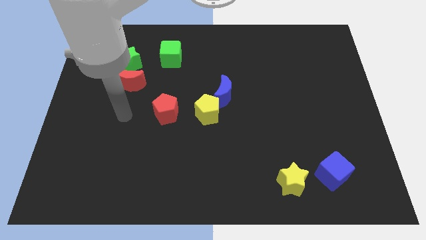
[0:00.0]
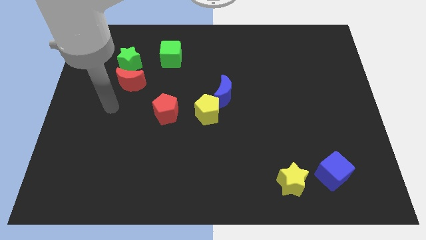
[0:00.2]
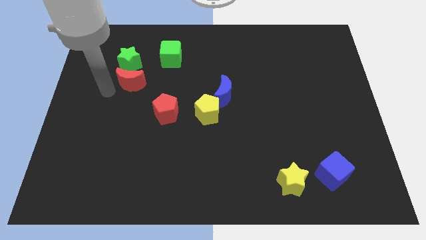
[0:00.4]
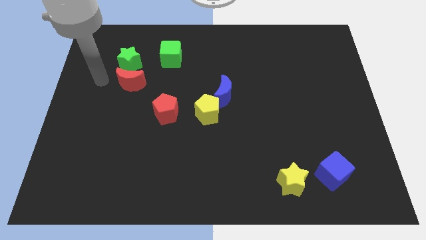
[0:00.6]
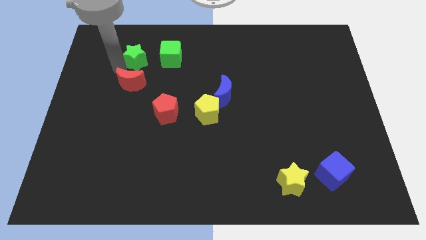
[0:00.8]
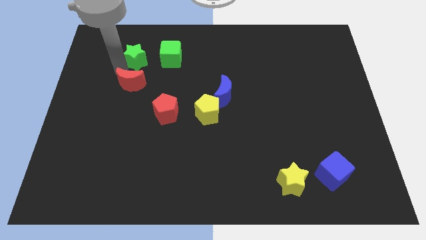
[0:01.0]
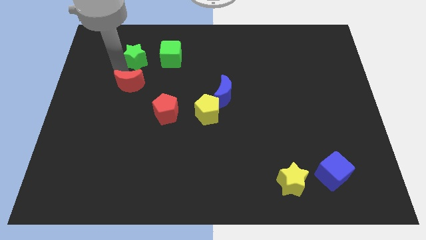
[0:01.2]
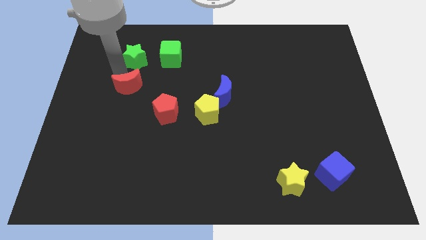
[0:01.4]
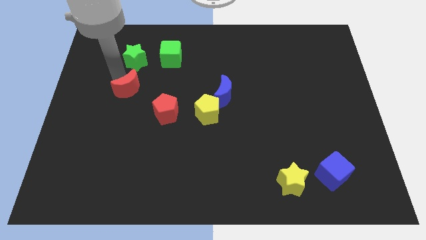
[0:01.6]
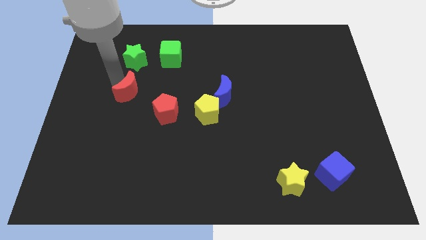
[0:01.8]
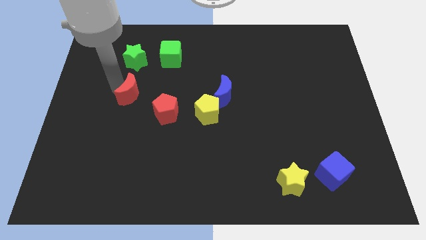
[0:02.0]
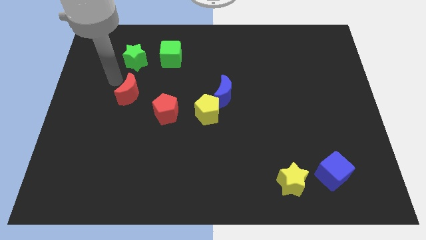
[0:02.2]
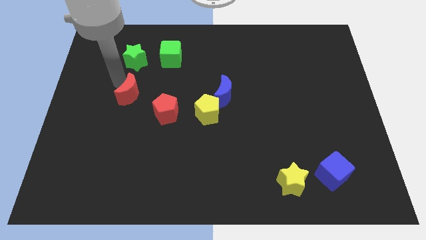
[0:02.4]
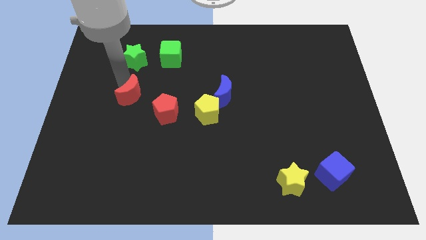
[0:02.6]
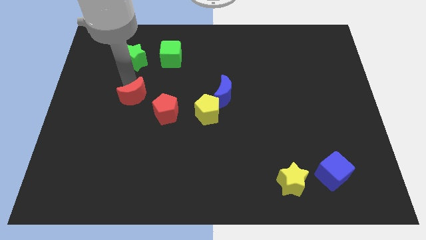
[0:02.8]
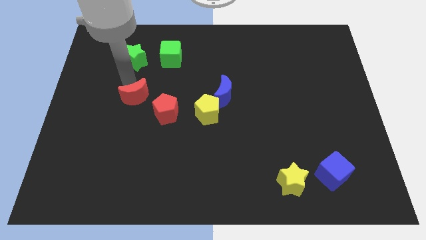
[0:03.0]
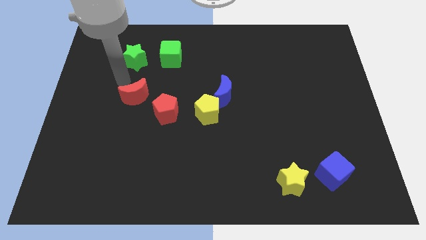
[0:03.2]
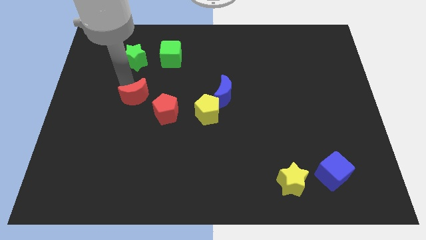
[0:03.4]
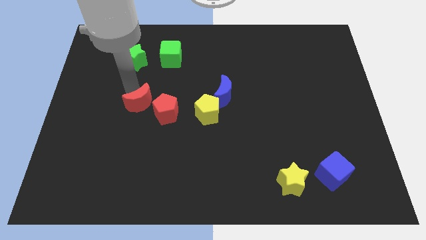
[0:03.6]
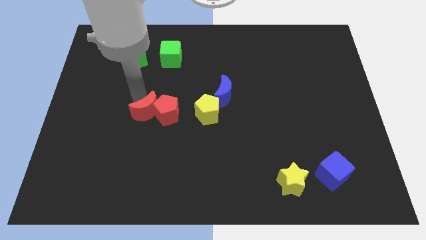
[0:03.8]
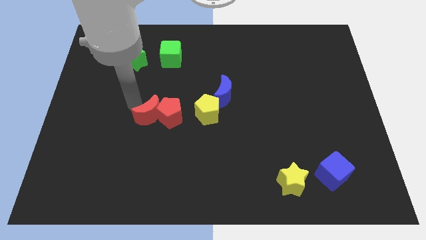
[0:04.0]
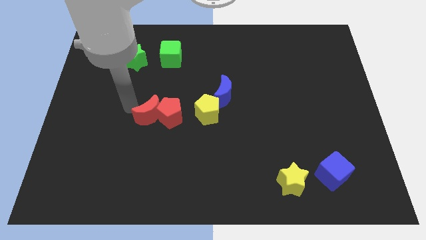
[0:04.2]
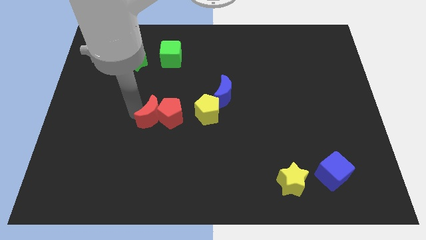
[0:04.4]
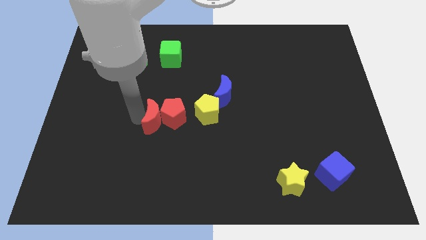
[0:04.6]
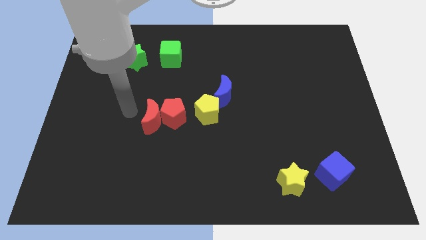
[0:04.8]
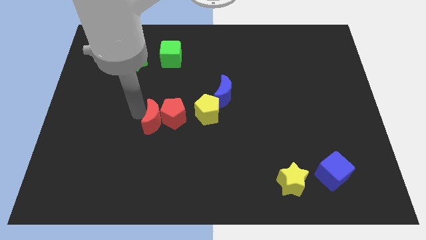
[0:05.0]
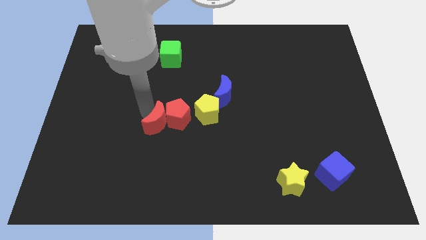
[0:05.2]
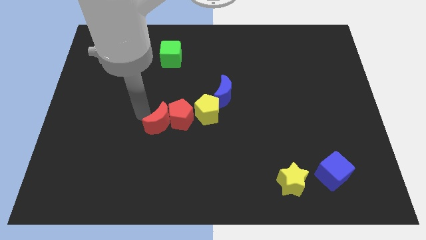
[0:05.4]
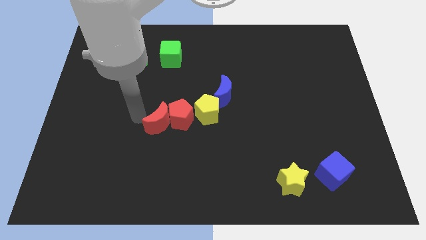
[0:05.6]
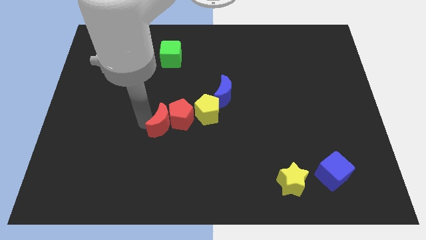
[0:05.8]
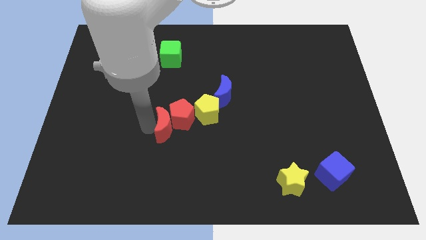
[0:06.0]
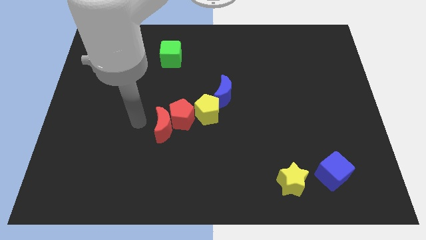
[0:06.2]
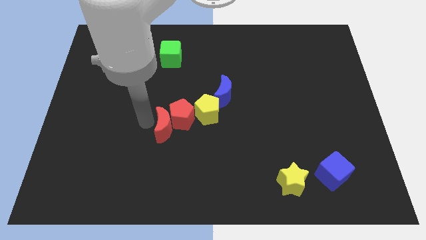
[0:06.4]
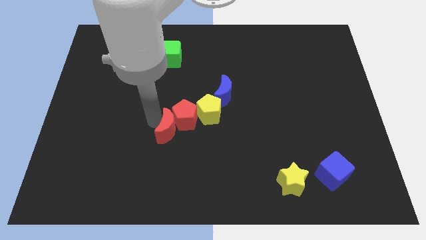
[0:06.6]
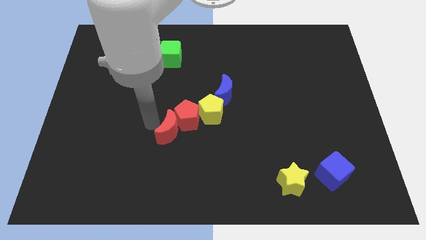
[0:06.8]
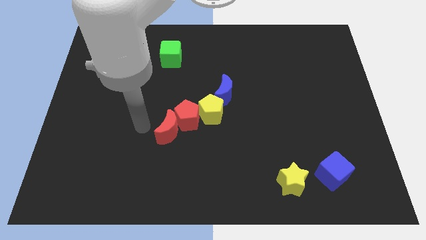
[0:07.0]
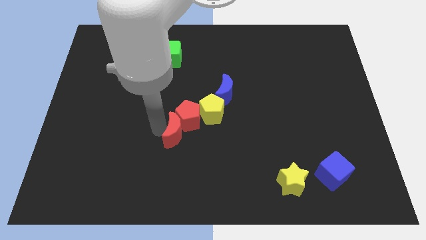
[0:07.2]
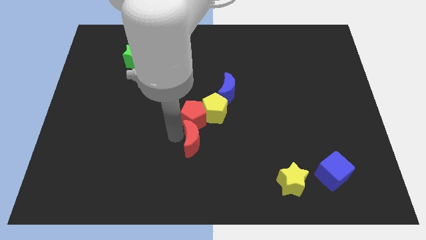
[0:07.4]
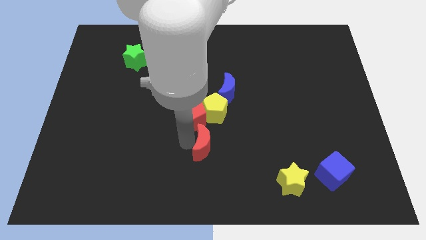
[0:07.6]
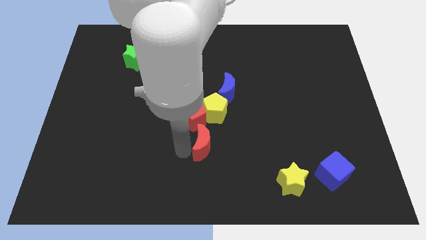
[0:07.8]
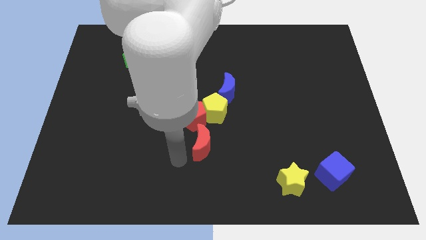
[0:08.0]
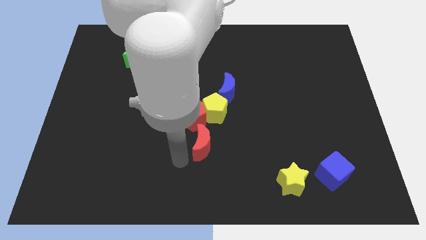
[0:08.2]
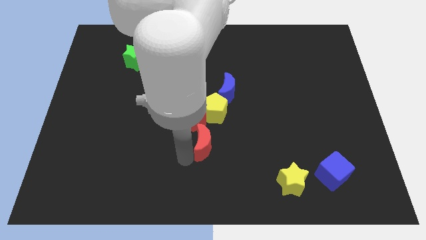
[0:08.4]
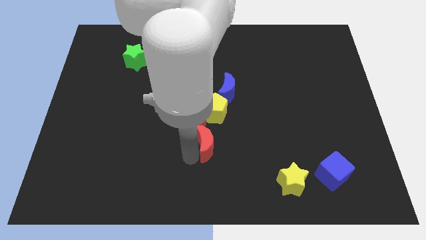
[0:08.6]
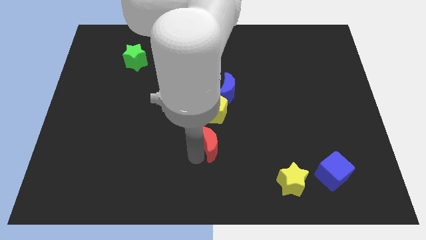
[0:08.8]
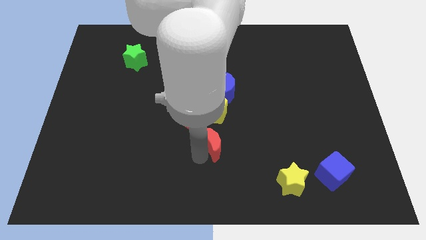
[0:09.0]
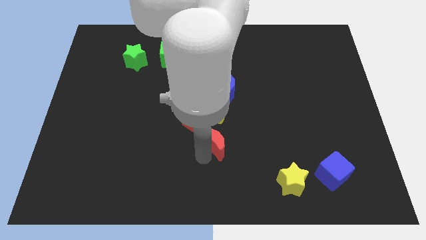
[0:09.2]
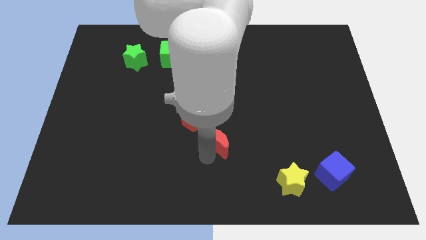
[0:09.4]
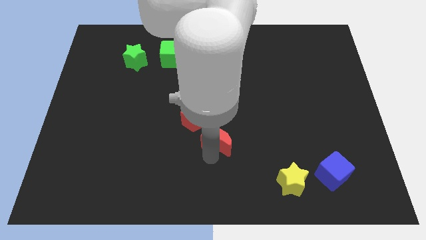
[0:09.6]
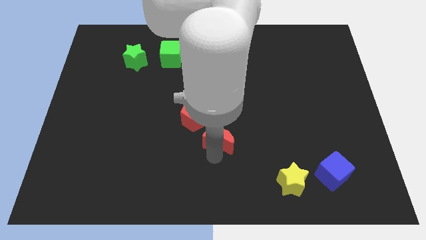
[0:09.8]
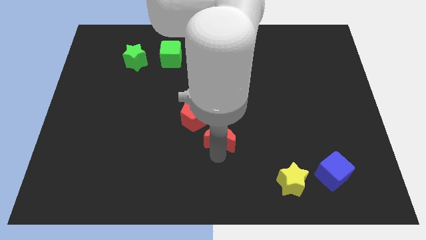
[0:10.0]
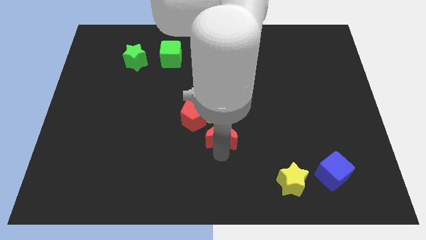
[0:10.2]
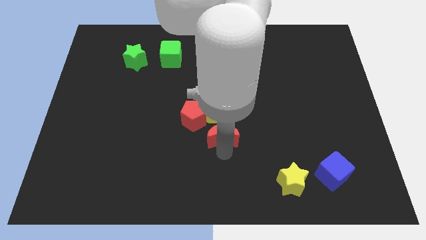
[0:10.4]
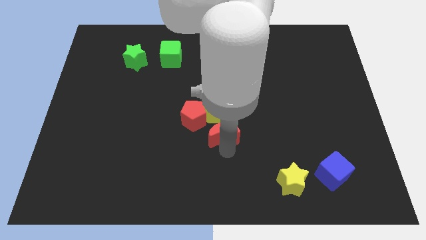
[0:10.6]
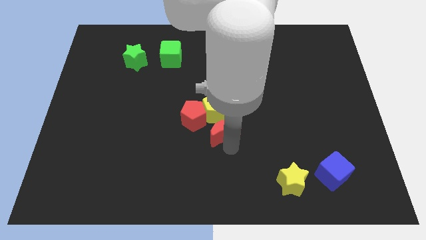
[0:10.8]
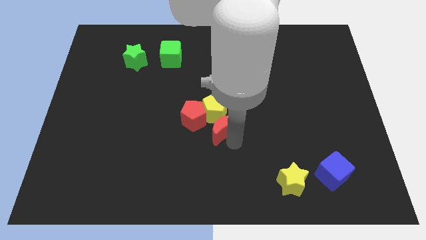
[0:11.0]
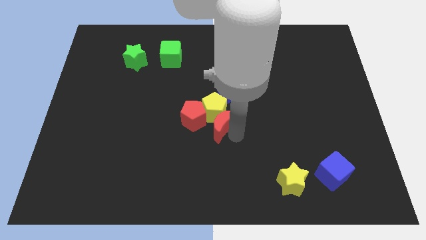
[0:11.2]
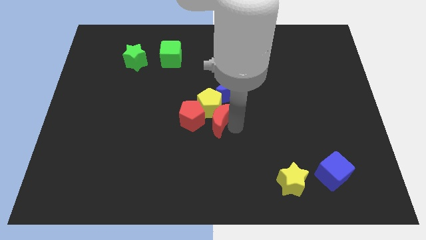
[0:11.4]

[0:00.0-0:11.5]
put the red moon to the bottom right of the red pentagon

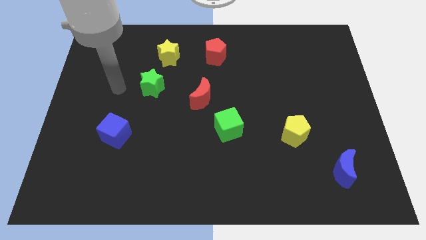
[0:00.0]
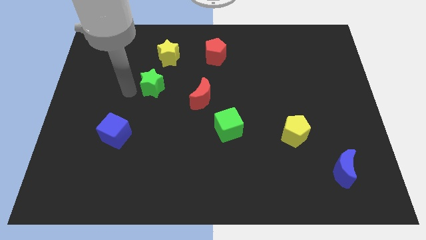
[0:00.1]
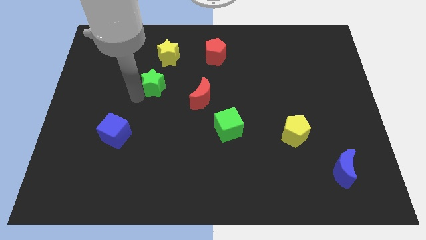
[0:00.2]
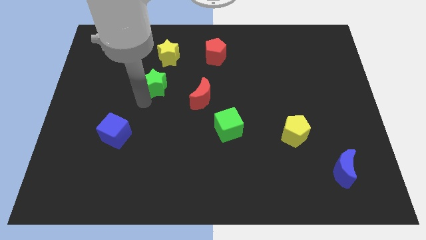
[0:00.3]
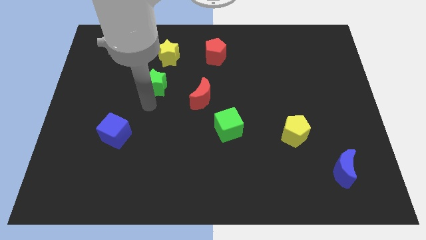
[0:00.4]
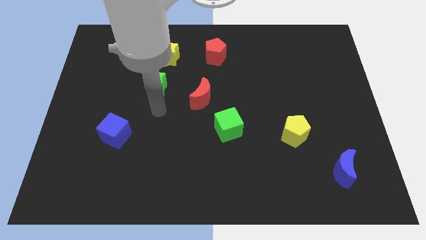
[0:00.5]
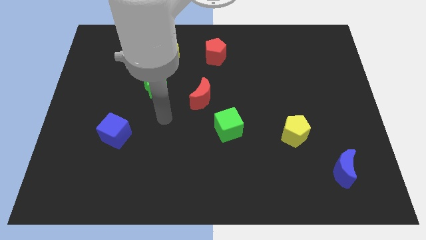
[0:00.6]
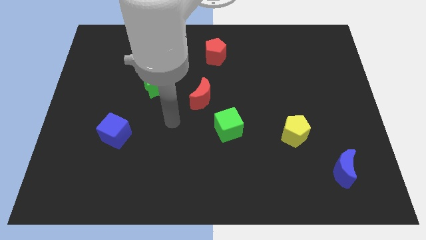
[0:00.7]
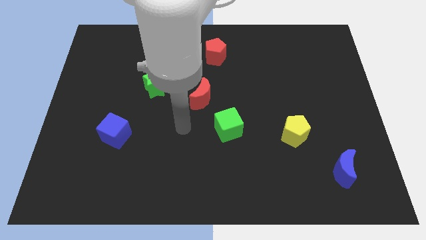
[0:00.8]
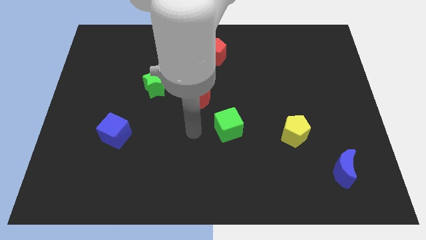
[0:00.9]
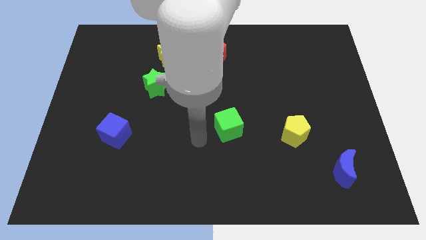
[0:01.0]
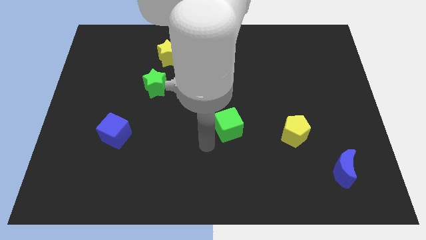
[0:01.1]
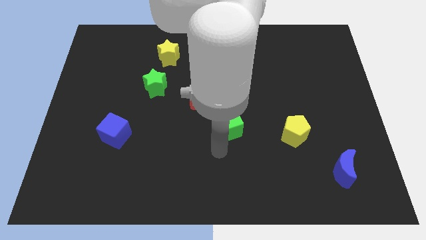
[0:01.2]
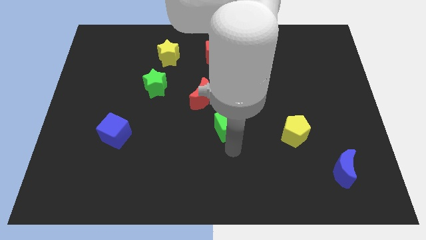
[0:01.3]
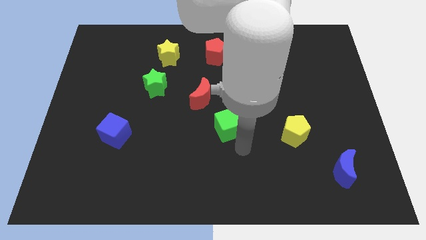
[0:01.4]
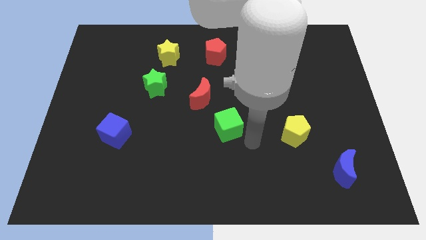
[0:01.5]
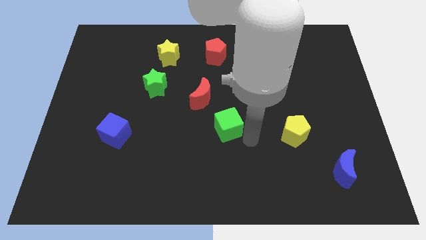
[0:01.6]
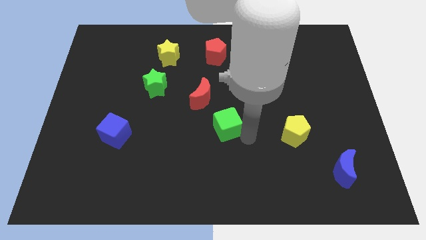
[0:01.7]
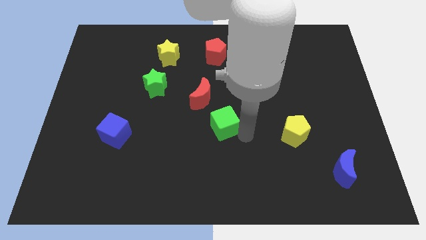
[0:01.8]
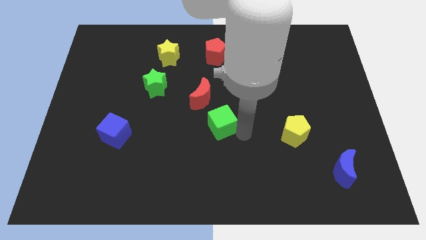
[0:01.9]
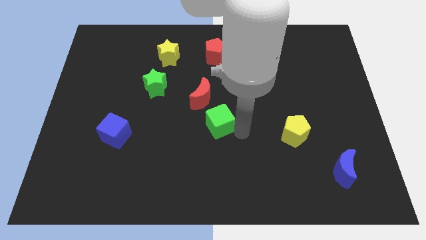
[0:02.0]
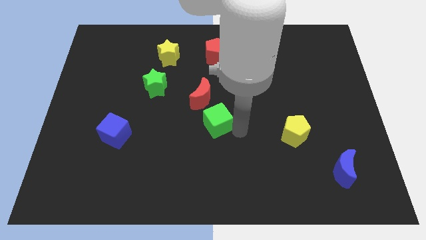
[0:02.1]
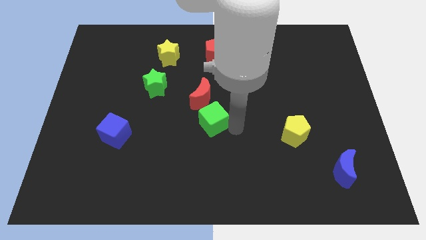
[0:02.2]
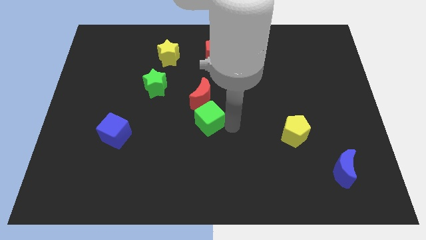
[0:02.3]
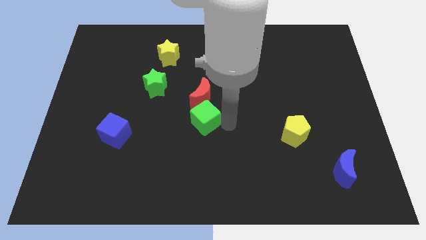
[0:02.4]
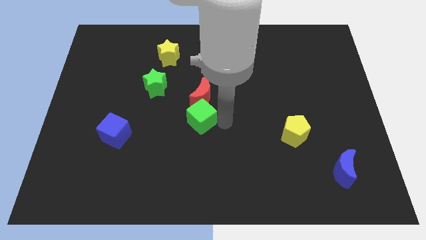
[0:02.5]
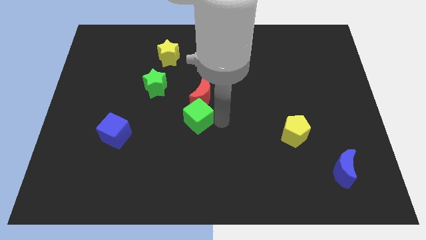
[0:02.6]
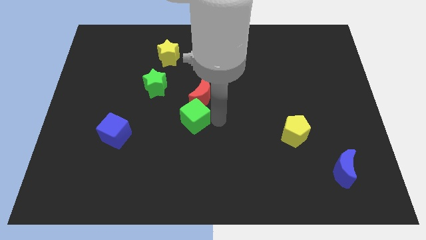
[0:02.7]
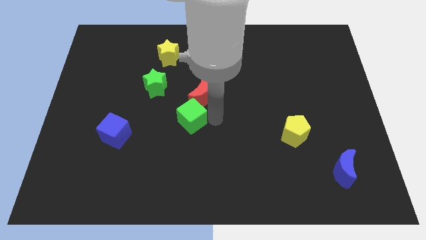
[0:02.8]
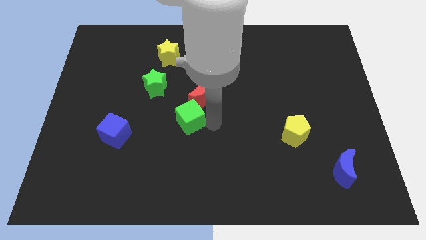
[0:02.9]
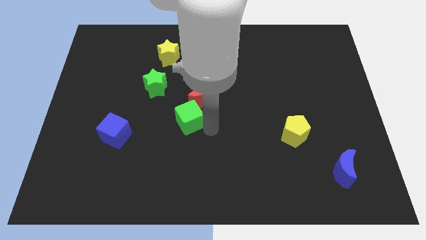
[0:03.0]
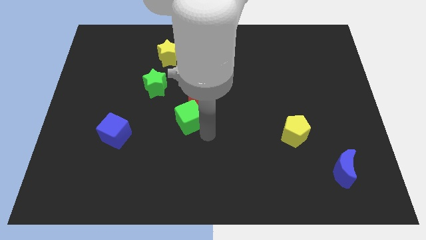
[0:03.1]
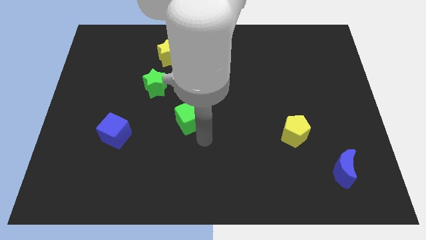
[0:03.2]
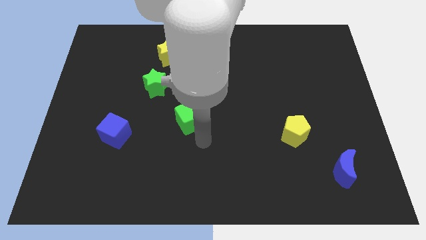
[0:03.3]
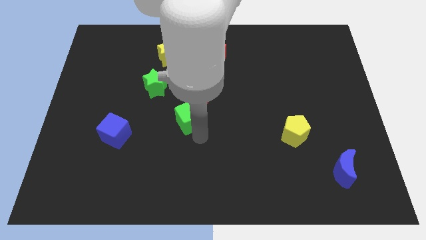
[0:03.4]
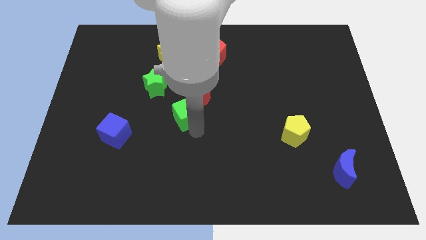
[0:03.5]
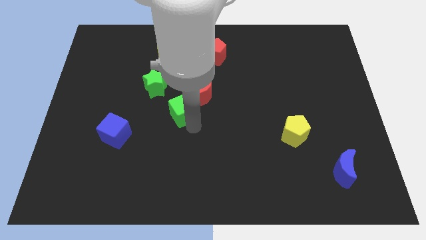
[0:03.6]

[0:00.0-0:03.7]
push the green cube to the left side of the red moon
